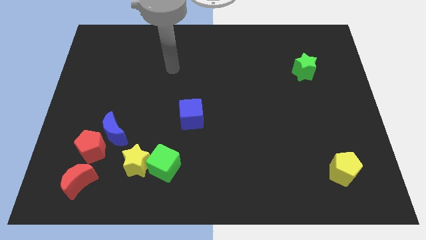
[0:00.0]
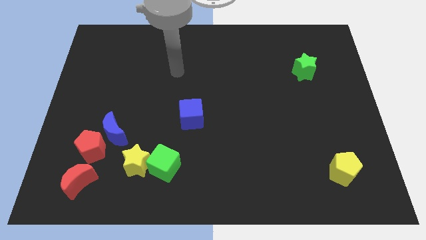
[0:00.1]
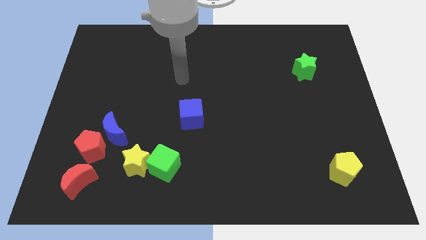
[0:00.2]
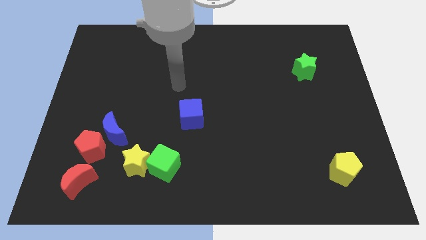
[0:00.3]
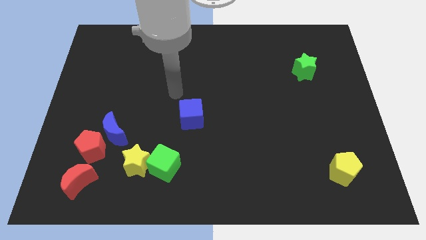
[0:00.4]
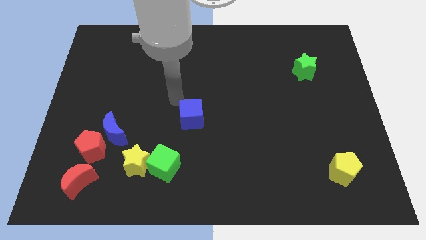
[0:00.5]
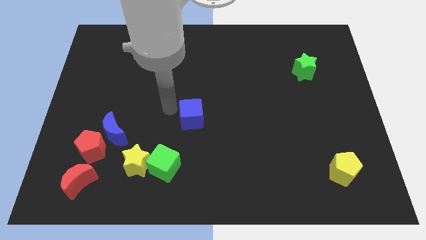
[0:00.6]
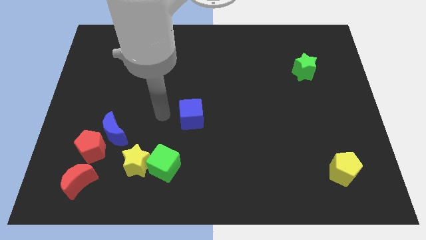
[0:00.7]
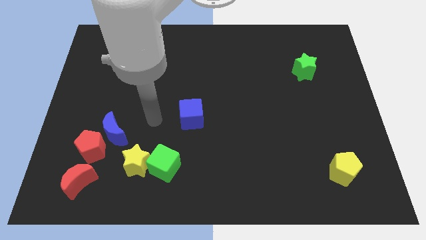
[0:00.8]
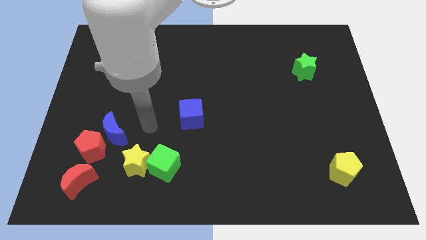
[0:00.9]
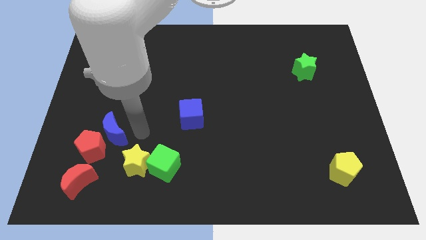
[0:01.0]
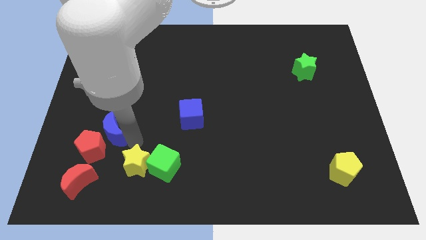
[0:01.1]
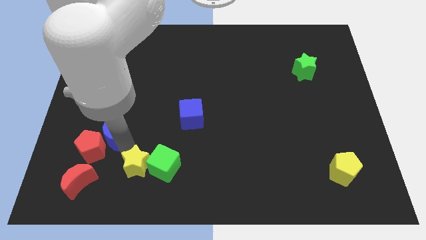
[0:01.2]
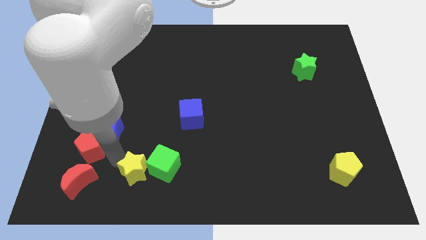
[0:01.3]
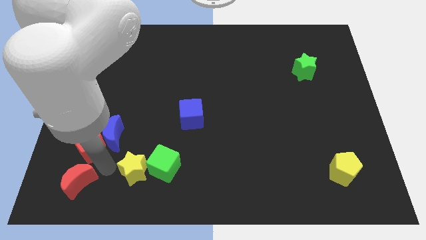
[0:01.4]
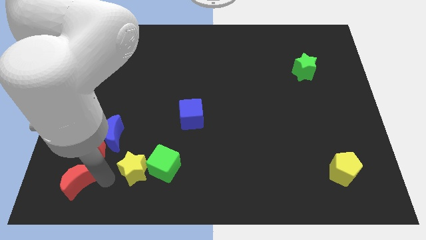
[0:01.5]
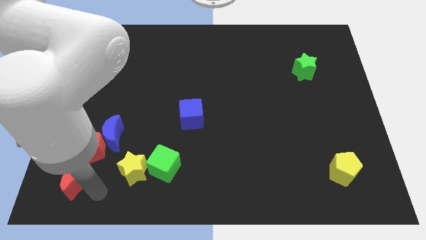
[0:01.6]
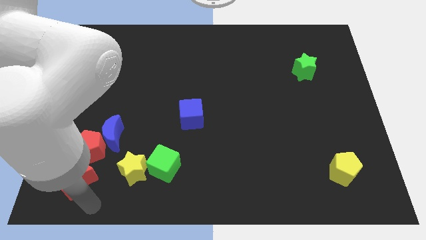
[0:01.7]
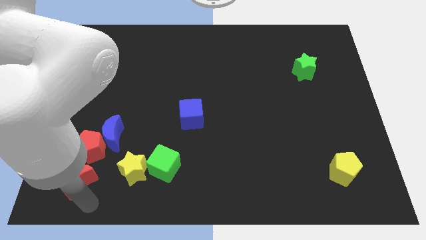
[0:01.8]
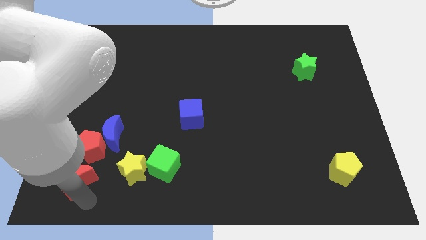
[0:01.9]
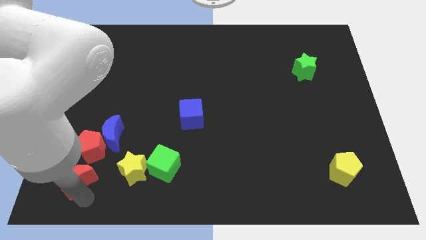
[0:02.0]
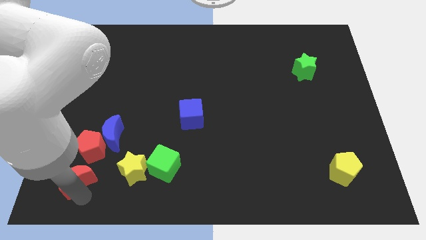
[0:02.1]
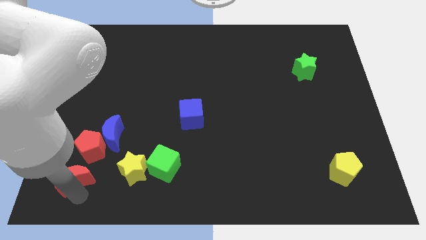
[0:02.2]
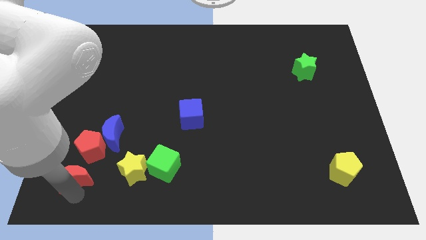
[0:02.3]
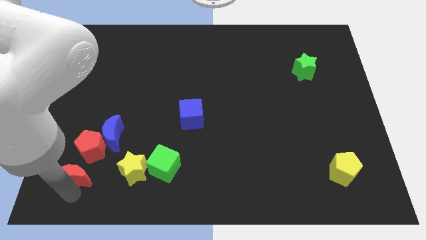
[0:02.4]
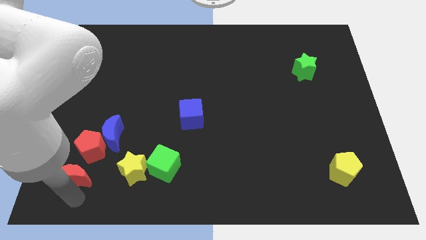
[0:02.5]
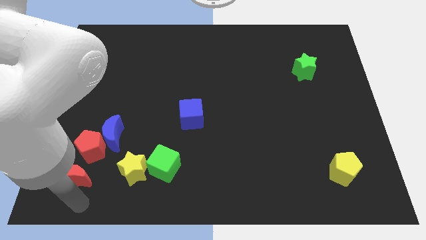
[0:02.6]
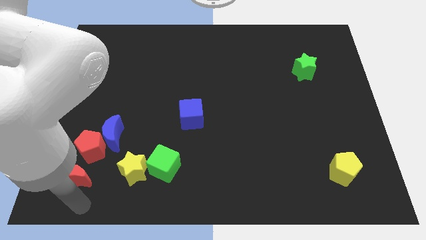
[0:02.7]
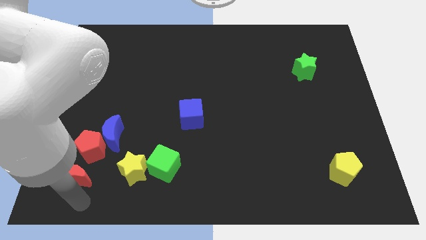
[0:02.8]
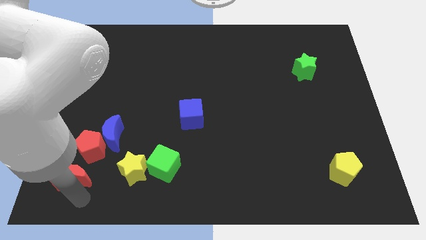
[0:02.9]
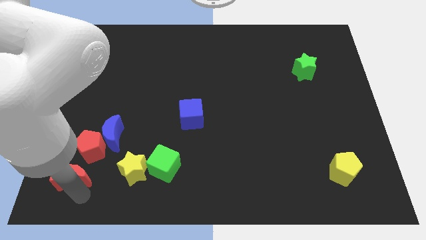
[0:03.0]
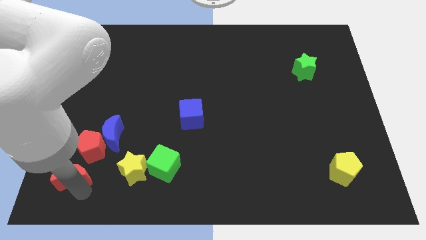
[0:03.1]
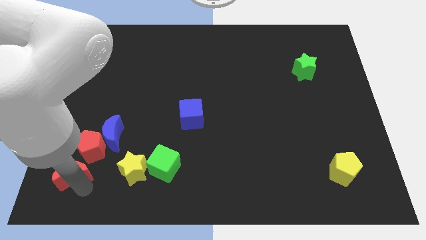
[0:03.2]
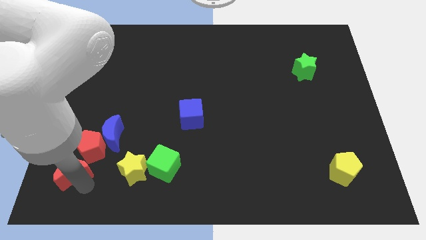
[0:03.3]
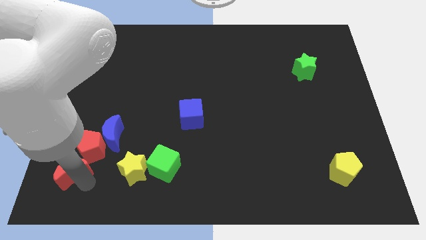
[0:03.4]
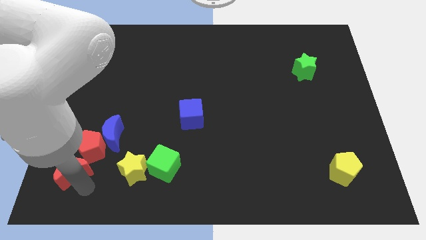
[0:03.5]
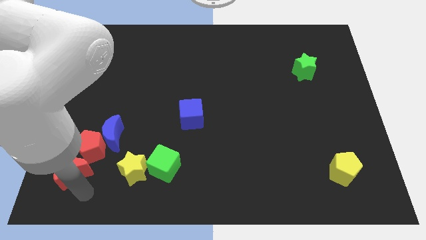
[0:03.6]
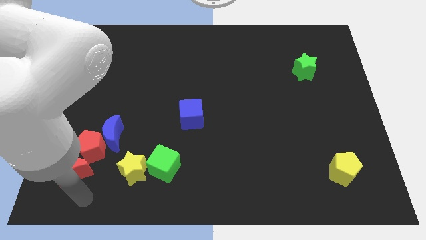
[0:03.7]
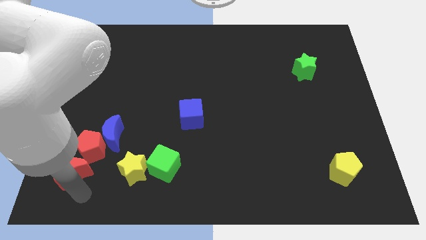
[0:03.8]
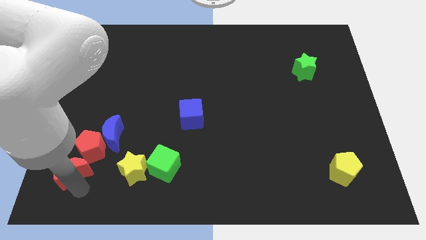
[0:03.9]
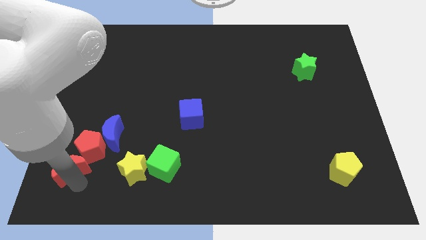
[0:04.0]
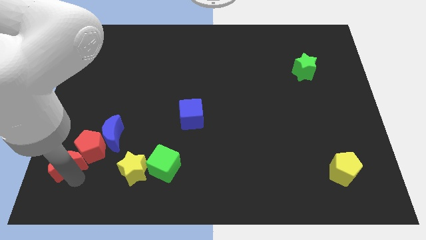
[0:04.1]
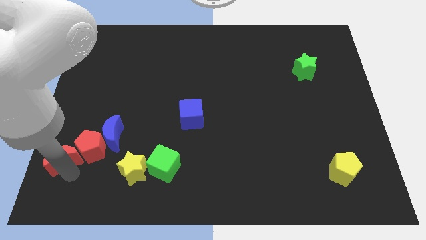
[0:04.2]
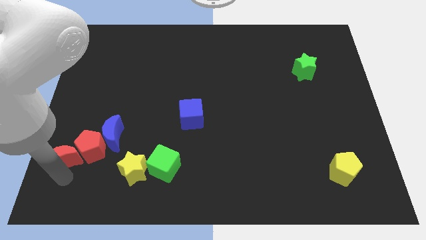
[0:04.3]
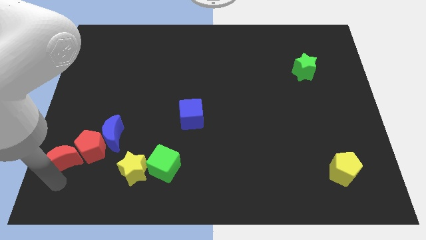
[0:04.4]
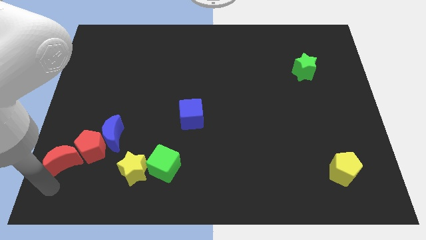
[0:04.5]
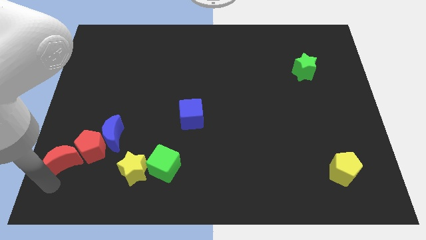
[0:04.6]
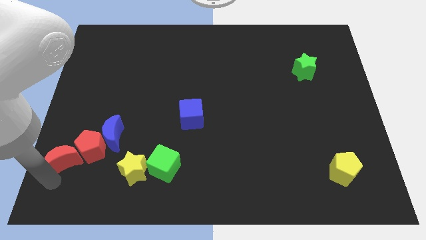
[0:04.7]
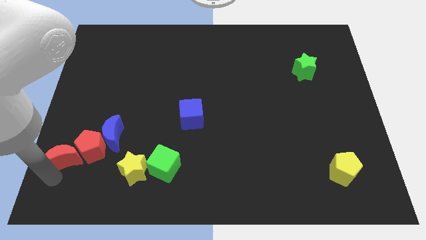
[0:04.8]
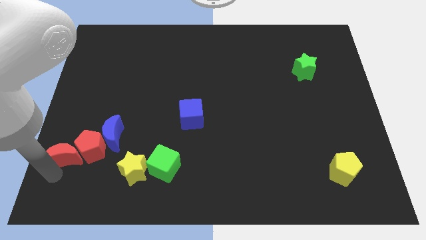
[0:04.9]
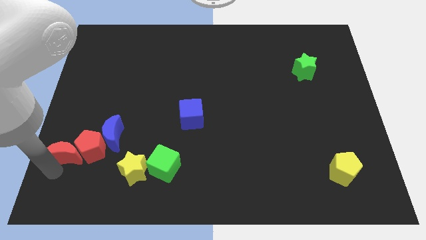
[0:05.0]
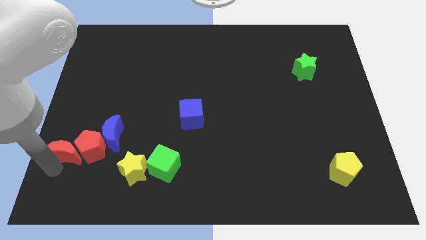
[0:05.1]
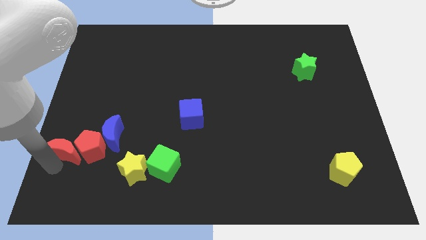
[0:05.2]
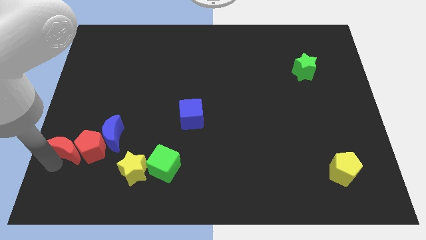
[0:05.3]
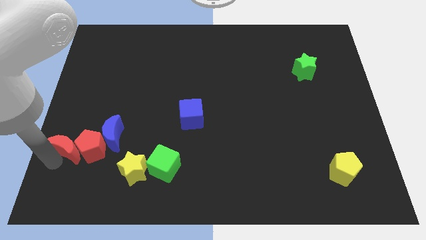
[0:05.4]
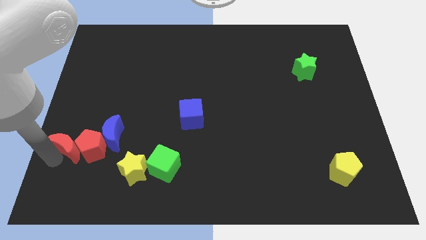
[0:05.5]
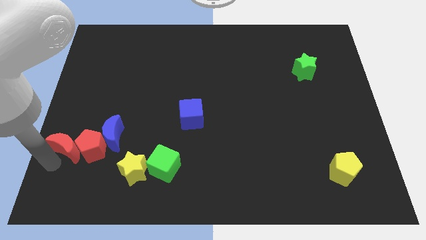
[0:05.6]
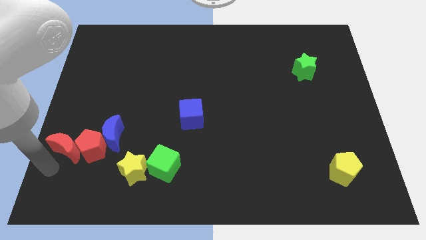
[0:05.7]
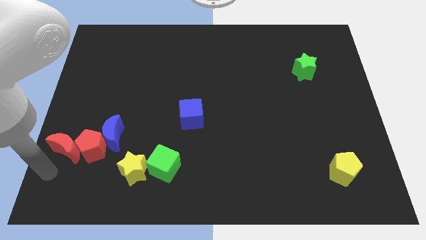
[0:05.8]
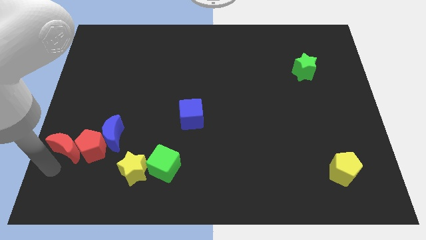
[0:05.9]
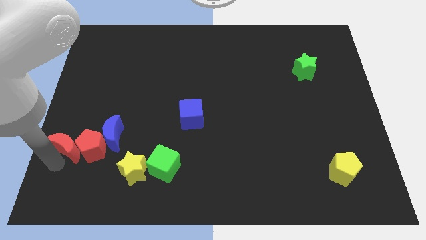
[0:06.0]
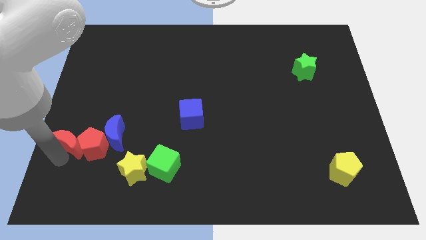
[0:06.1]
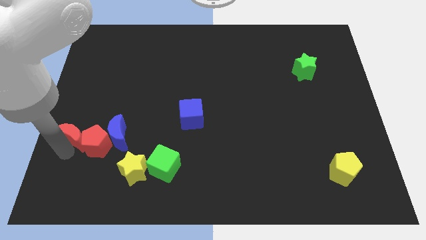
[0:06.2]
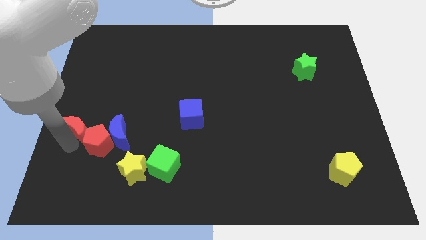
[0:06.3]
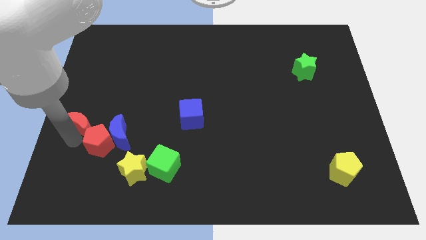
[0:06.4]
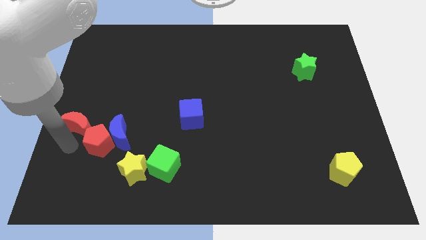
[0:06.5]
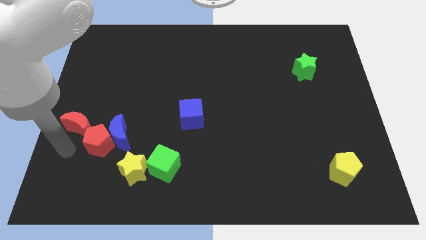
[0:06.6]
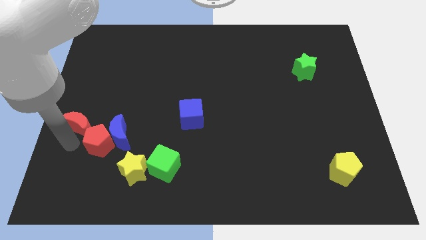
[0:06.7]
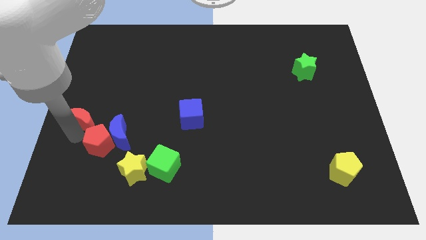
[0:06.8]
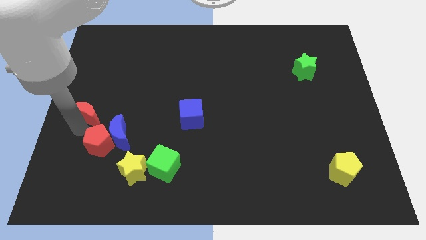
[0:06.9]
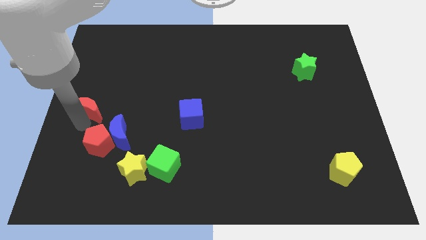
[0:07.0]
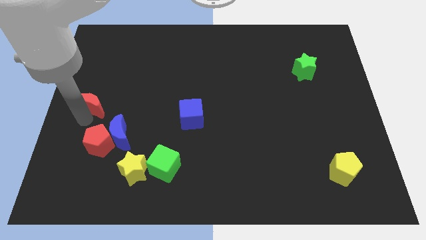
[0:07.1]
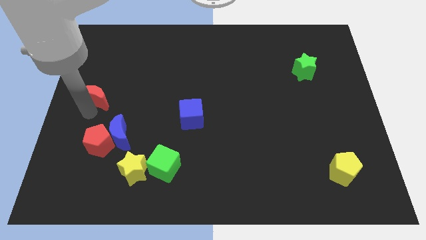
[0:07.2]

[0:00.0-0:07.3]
push the red moon upwards
